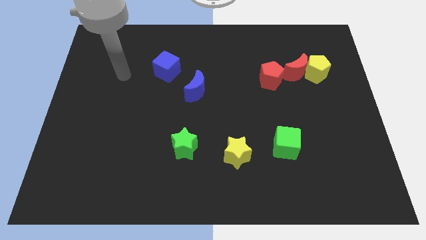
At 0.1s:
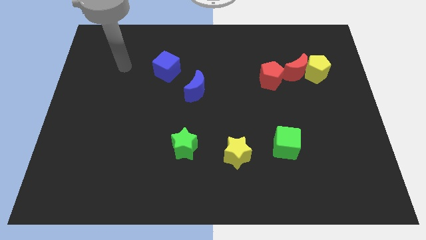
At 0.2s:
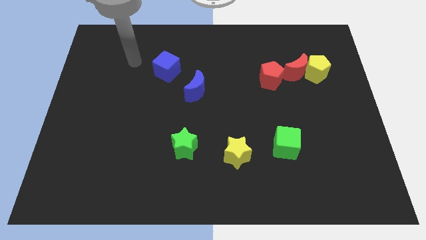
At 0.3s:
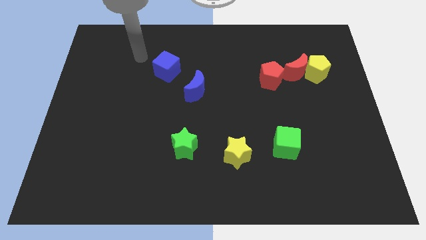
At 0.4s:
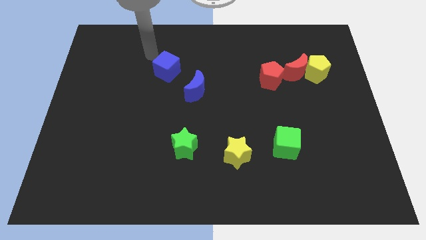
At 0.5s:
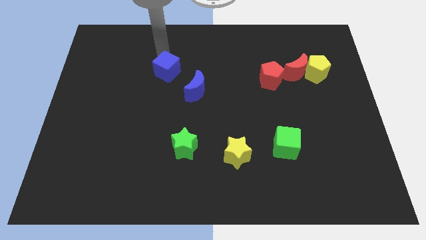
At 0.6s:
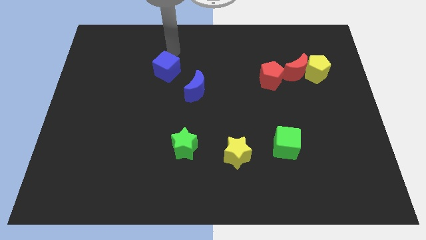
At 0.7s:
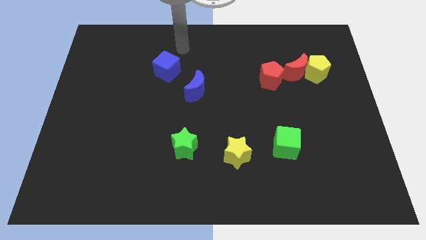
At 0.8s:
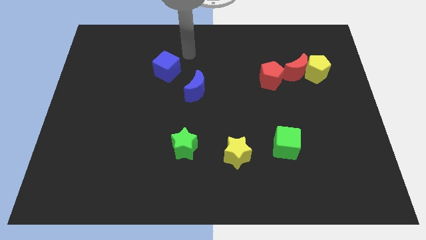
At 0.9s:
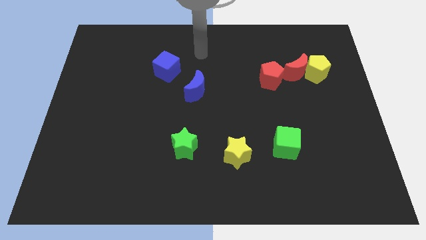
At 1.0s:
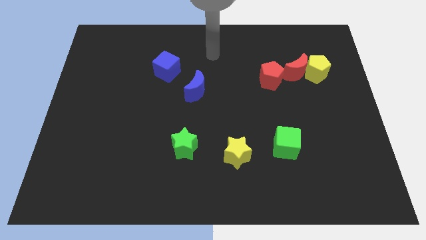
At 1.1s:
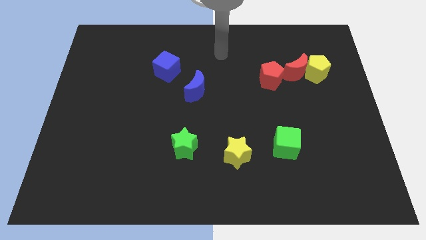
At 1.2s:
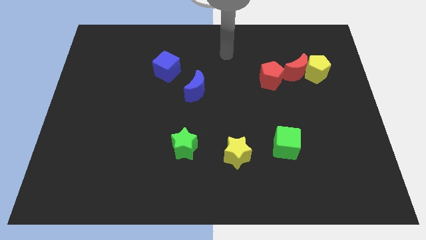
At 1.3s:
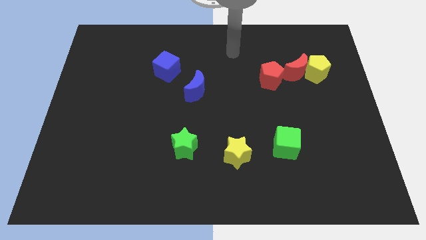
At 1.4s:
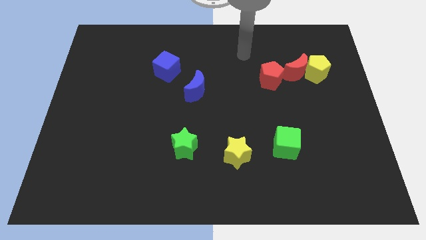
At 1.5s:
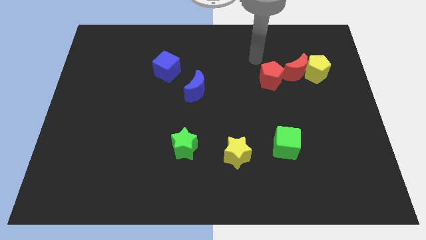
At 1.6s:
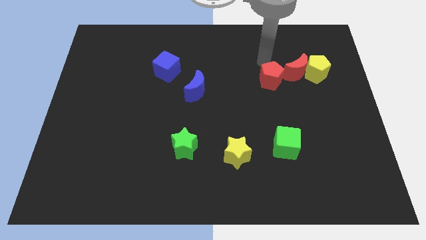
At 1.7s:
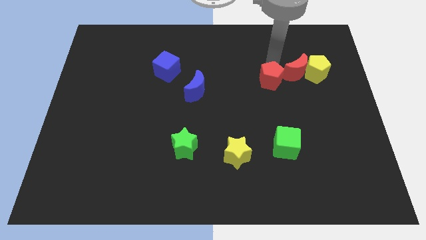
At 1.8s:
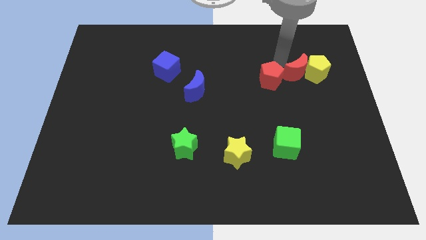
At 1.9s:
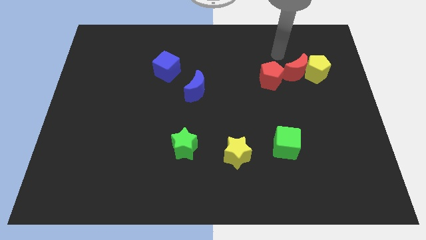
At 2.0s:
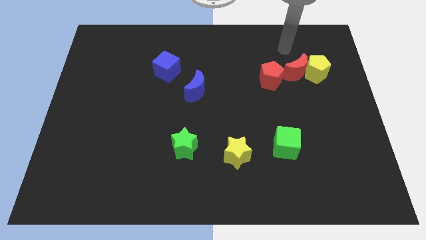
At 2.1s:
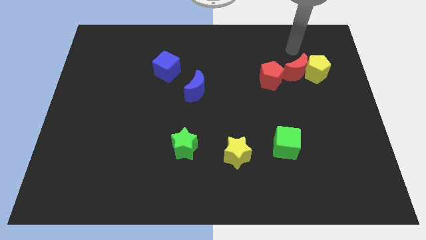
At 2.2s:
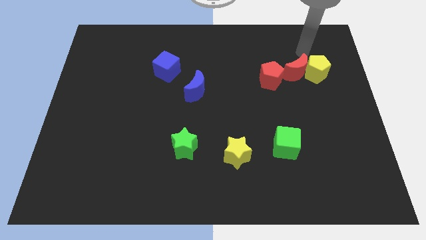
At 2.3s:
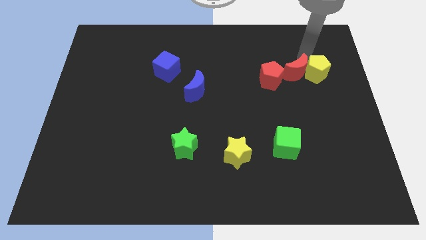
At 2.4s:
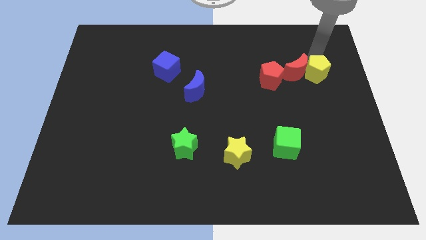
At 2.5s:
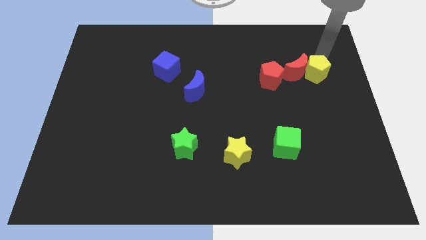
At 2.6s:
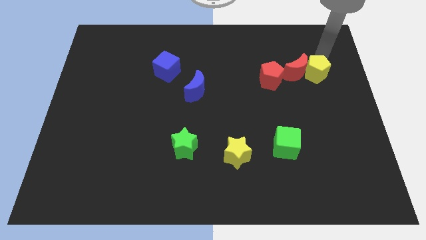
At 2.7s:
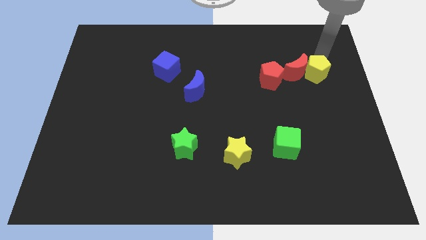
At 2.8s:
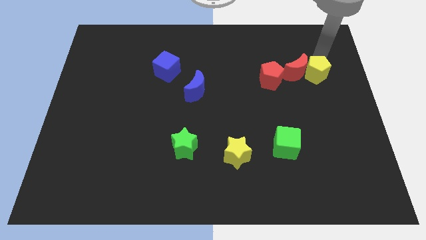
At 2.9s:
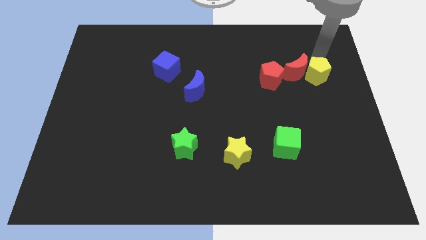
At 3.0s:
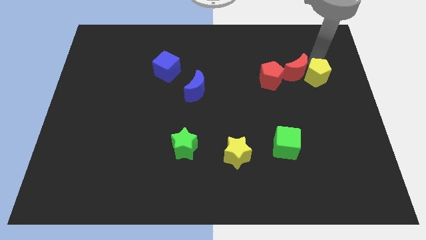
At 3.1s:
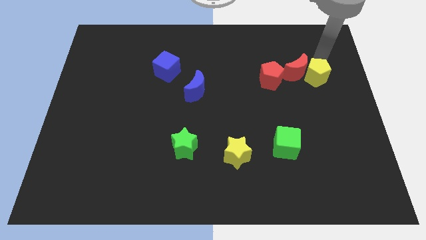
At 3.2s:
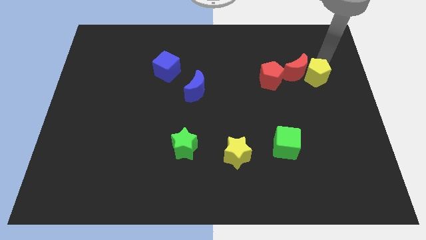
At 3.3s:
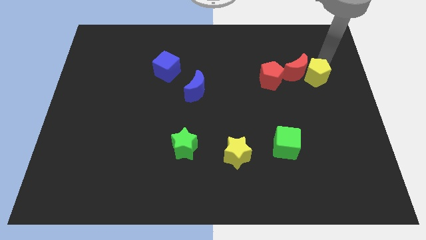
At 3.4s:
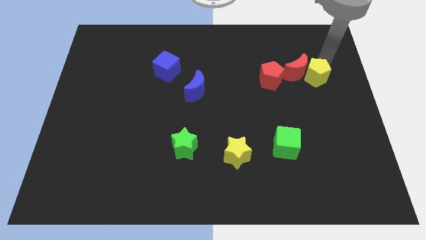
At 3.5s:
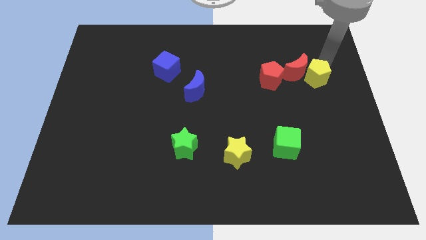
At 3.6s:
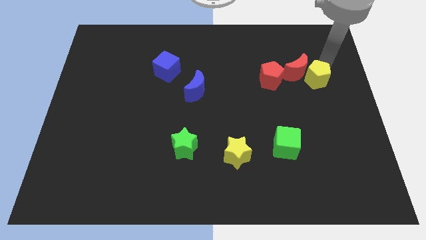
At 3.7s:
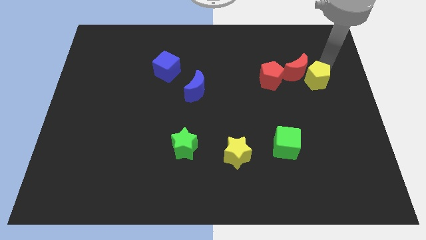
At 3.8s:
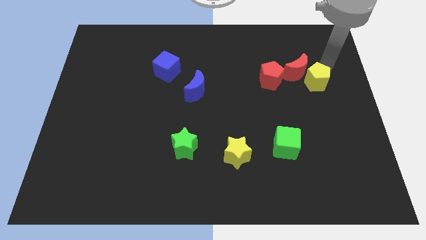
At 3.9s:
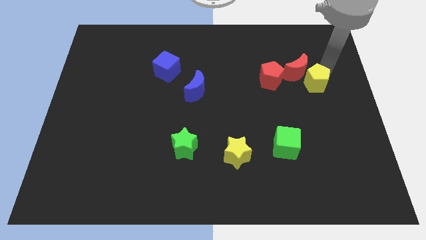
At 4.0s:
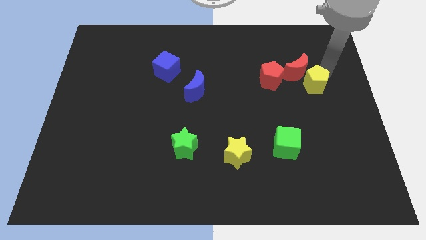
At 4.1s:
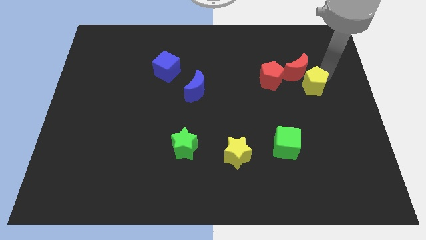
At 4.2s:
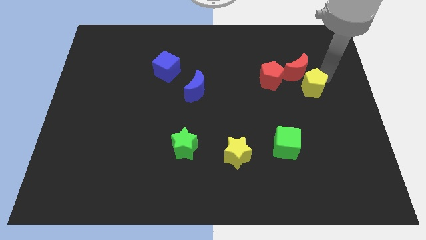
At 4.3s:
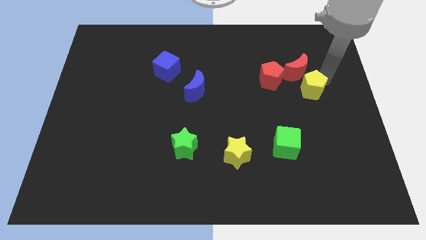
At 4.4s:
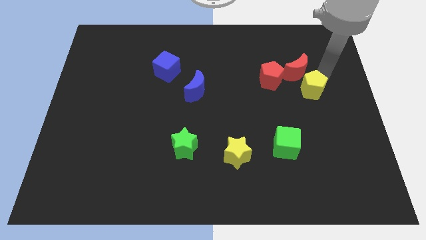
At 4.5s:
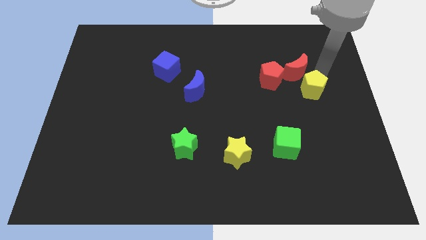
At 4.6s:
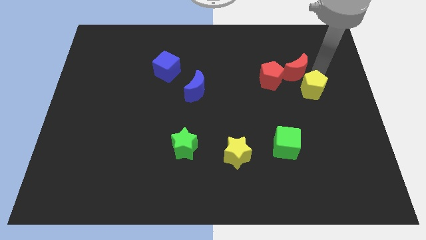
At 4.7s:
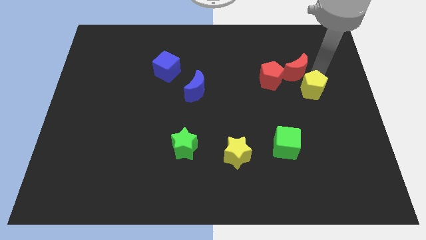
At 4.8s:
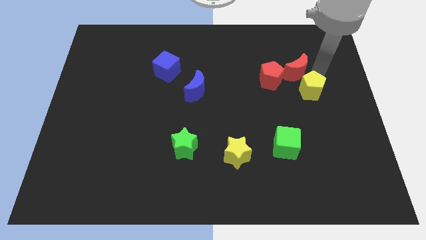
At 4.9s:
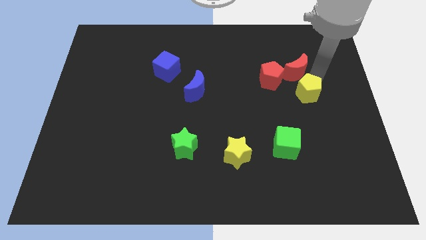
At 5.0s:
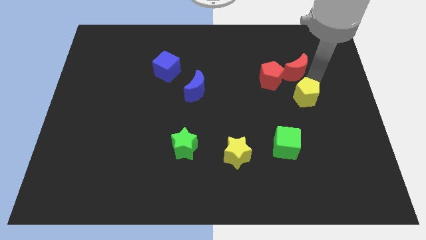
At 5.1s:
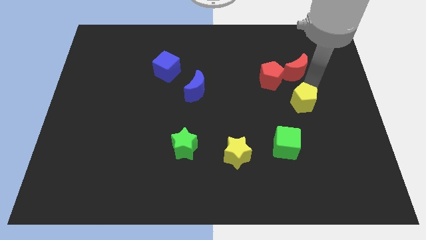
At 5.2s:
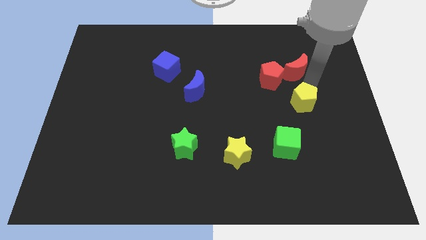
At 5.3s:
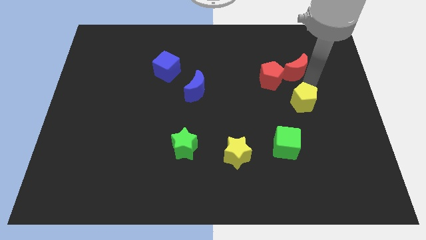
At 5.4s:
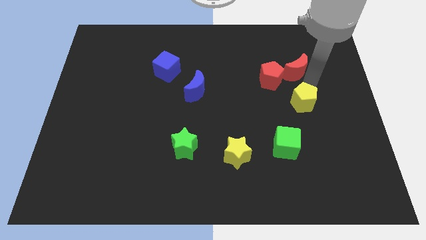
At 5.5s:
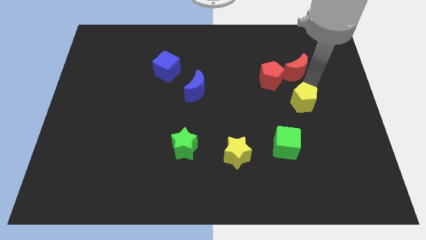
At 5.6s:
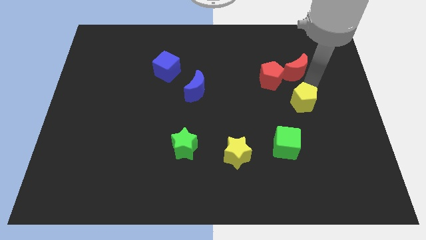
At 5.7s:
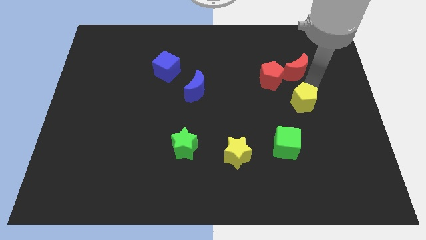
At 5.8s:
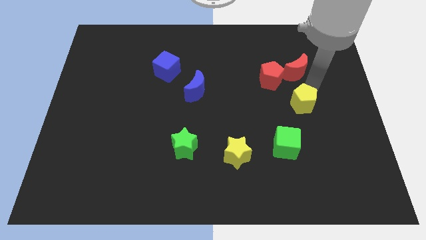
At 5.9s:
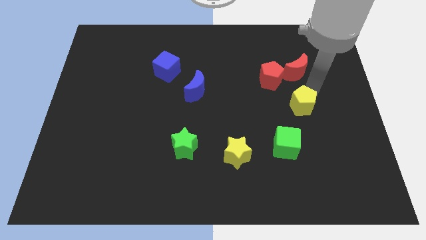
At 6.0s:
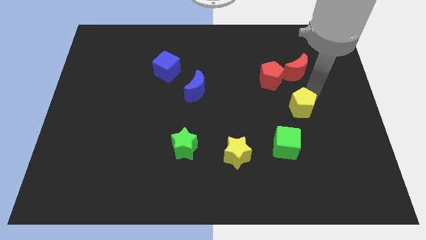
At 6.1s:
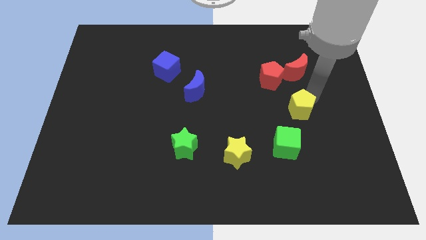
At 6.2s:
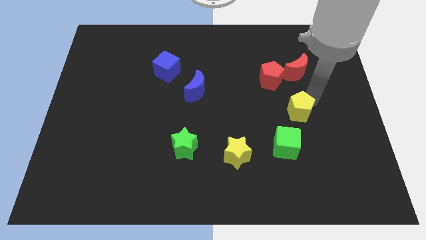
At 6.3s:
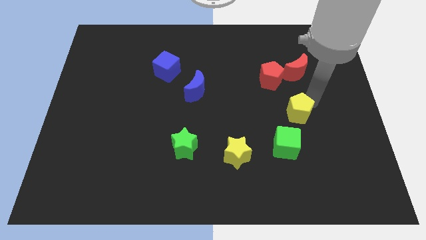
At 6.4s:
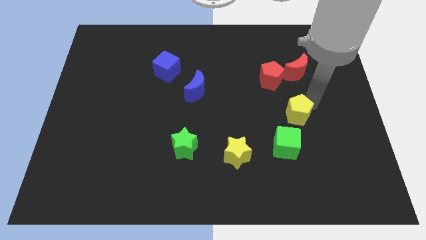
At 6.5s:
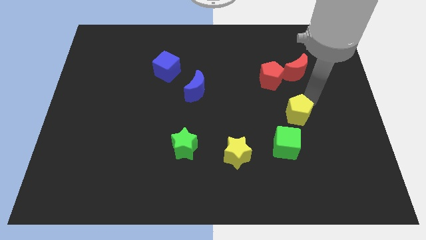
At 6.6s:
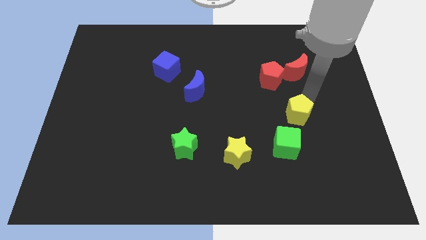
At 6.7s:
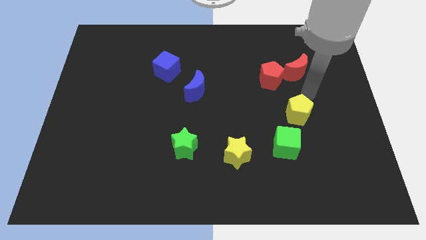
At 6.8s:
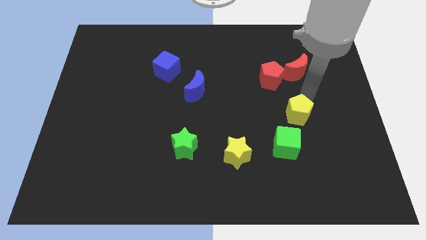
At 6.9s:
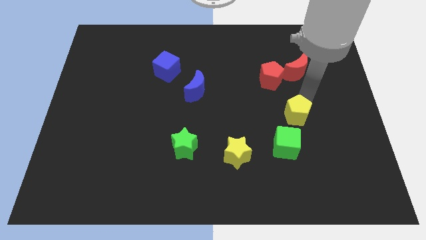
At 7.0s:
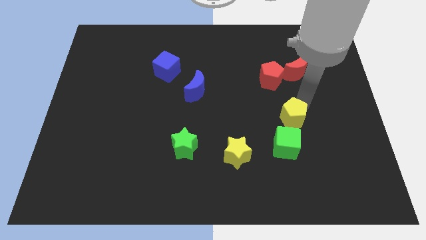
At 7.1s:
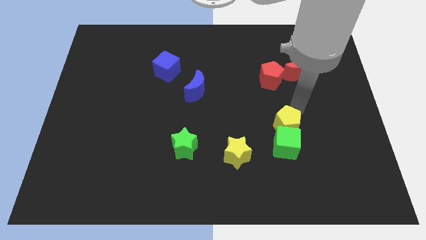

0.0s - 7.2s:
put the yellow pentagon close to the green cube
